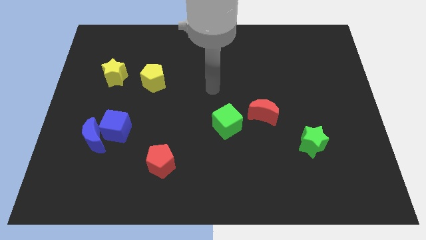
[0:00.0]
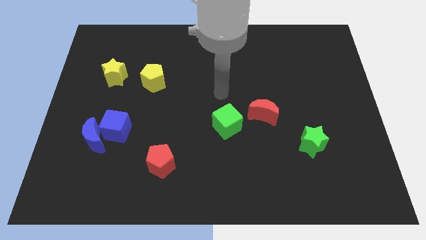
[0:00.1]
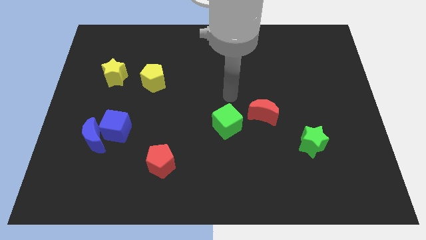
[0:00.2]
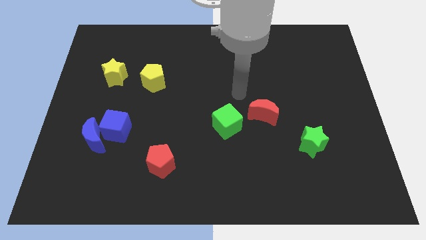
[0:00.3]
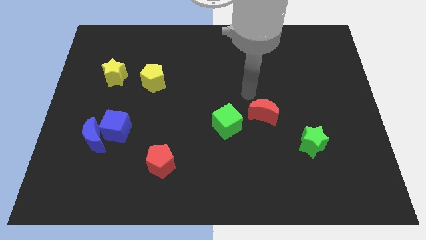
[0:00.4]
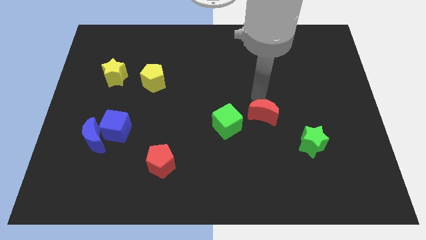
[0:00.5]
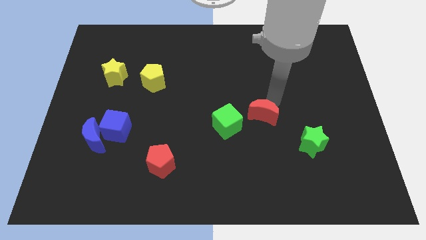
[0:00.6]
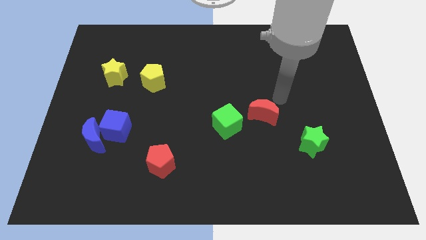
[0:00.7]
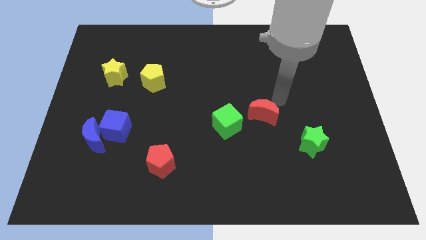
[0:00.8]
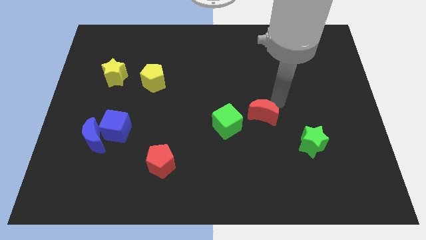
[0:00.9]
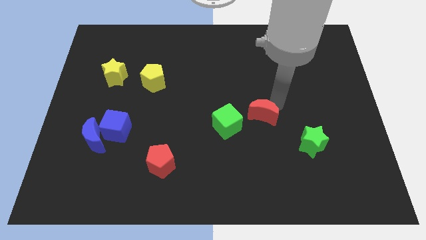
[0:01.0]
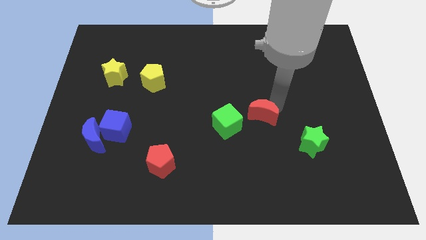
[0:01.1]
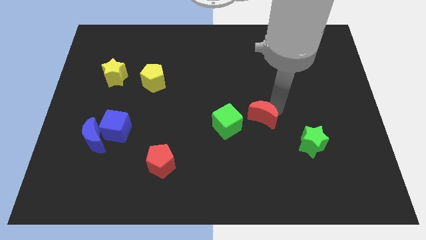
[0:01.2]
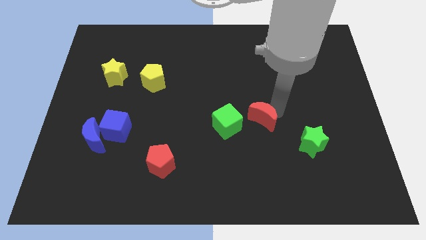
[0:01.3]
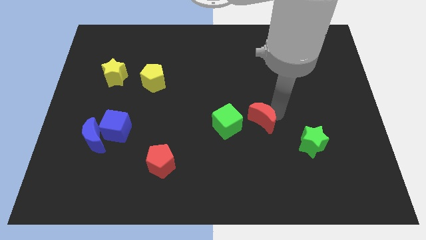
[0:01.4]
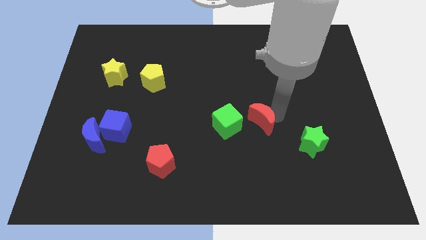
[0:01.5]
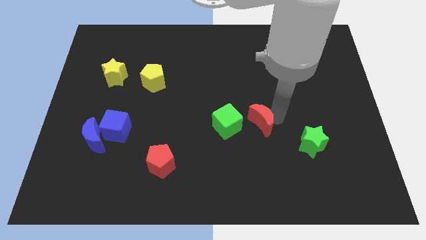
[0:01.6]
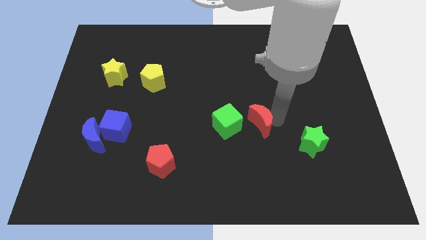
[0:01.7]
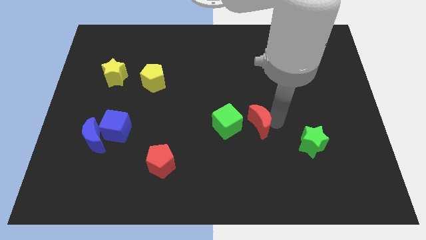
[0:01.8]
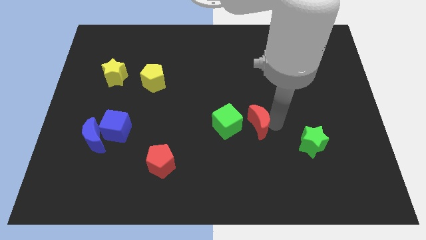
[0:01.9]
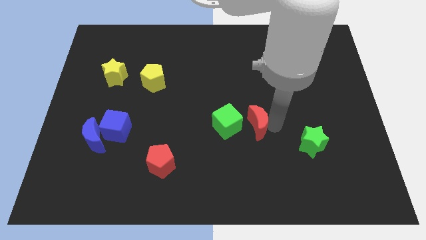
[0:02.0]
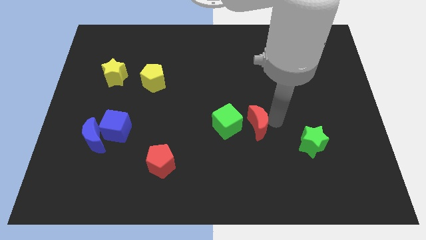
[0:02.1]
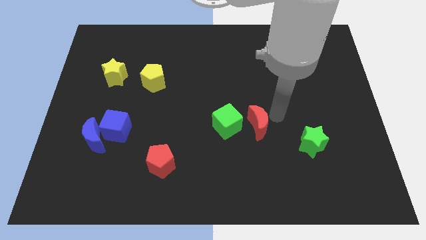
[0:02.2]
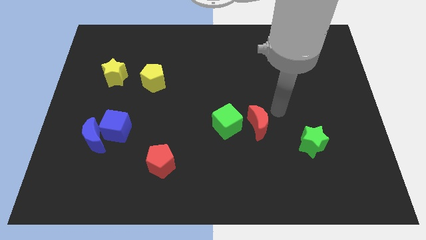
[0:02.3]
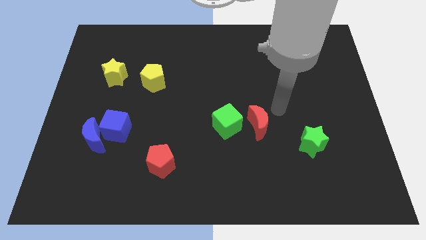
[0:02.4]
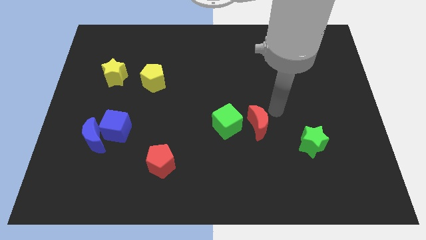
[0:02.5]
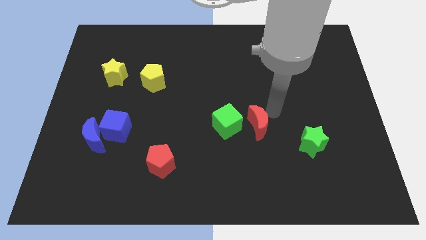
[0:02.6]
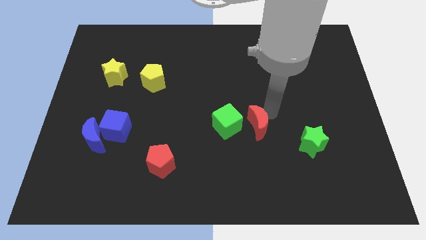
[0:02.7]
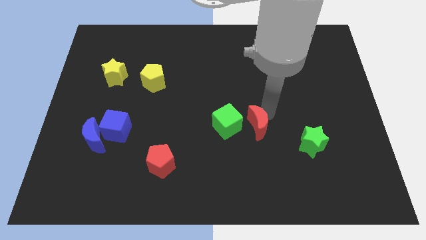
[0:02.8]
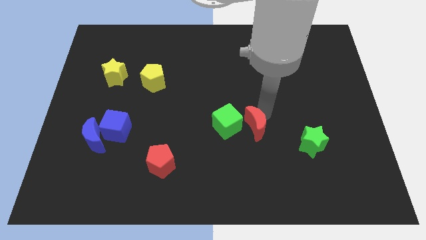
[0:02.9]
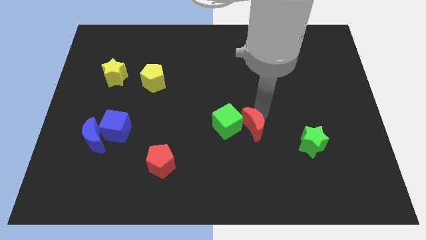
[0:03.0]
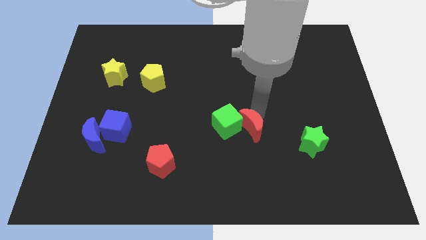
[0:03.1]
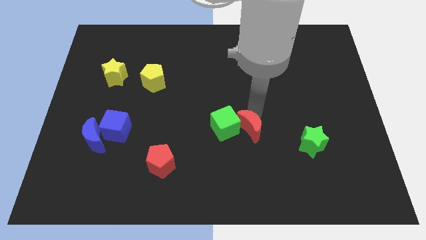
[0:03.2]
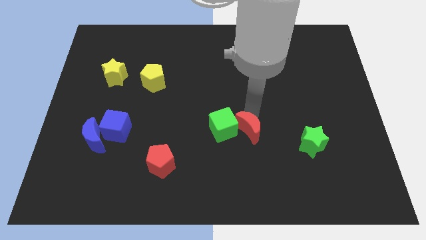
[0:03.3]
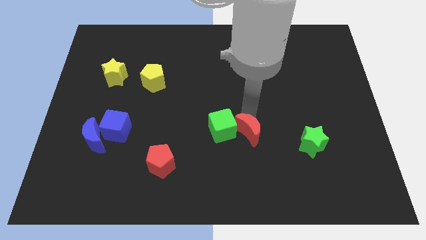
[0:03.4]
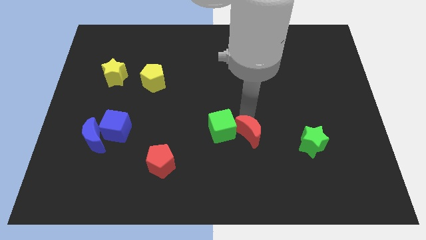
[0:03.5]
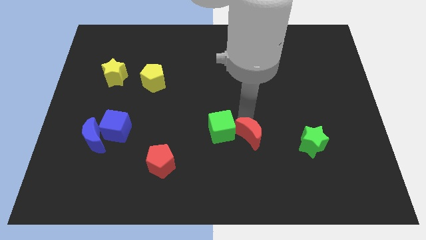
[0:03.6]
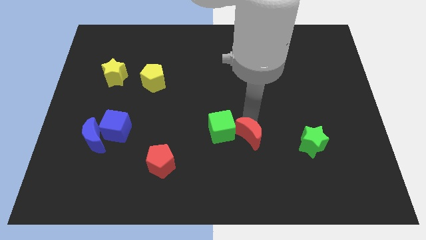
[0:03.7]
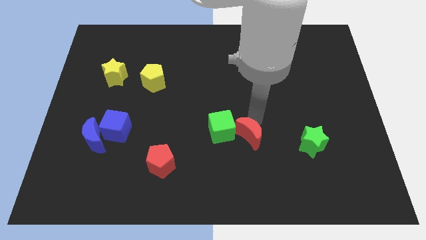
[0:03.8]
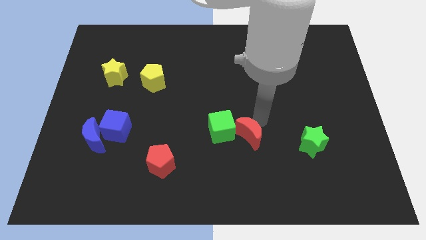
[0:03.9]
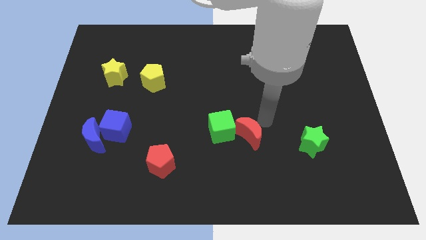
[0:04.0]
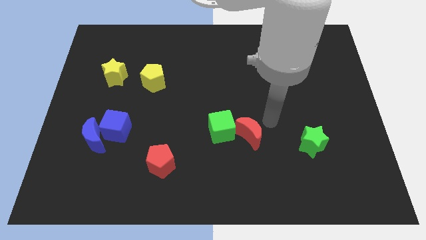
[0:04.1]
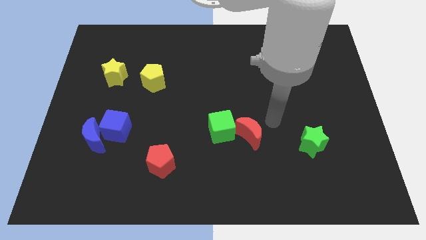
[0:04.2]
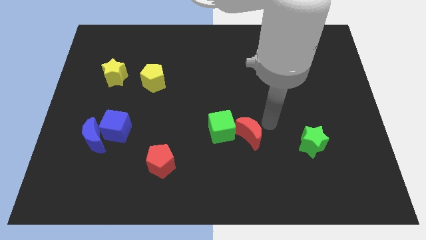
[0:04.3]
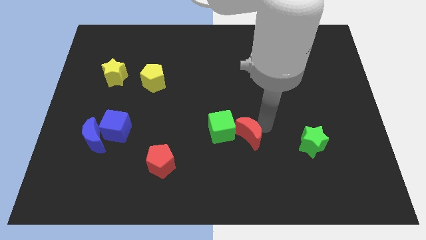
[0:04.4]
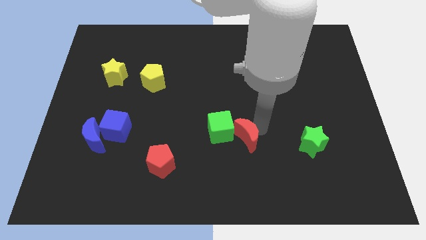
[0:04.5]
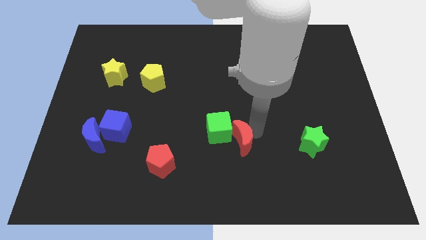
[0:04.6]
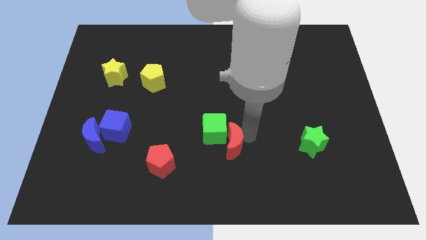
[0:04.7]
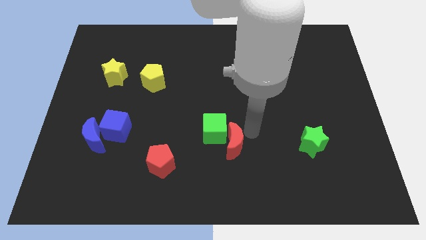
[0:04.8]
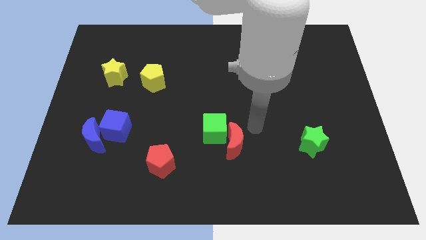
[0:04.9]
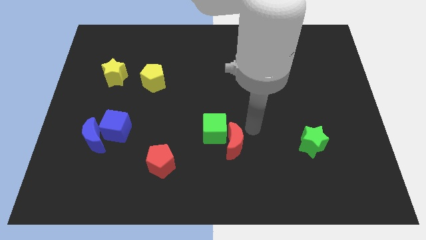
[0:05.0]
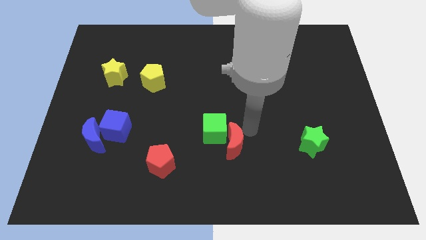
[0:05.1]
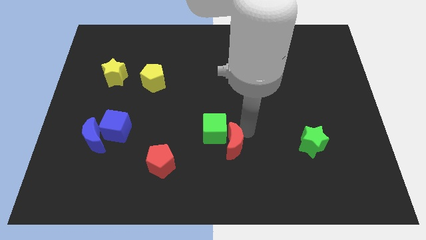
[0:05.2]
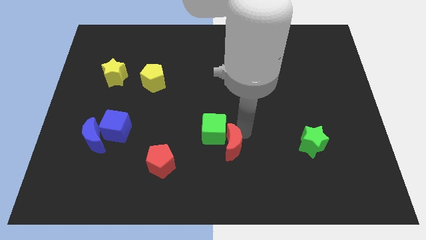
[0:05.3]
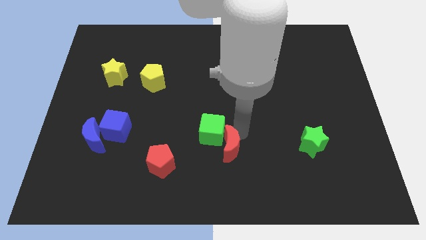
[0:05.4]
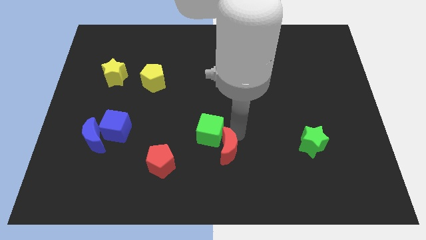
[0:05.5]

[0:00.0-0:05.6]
move the red moon to the right of the red pentagon

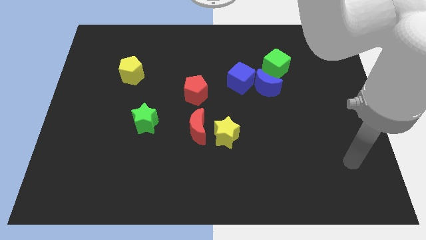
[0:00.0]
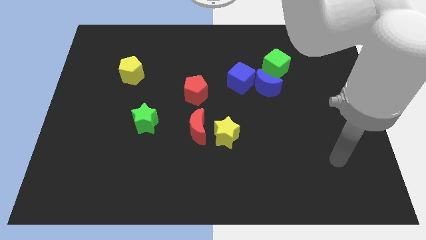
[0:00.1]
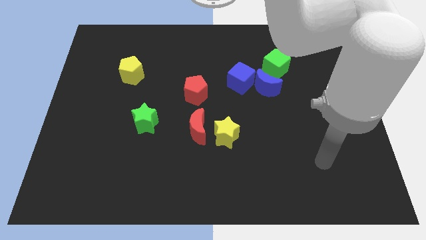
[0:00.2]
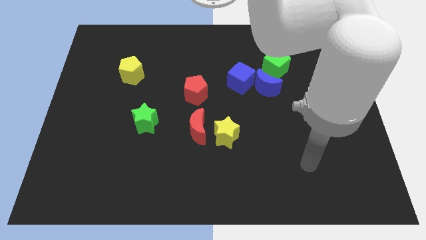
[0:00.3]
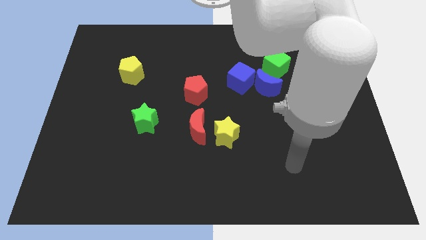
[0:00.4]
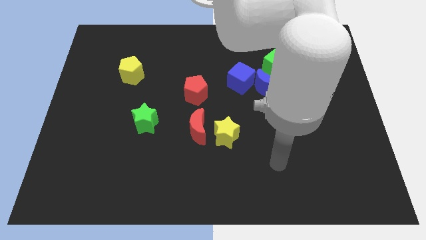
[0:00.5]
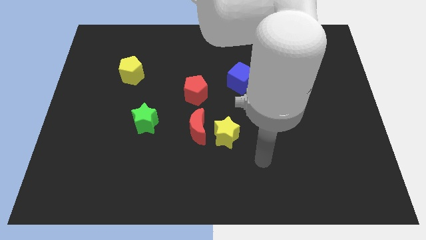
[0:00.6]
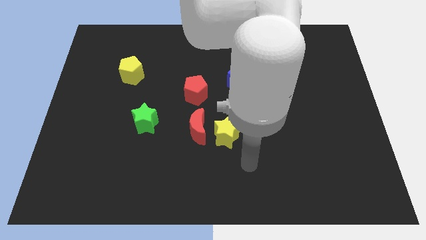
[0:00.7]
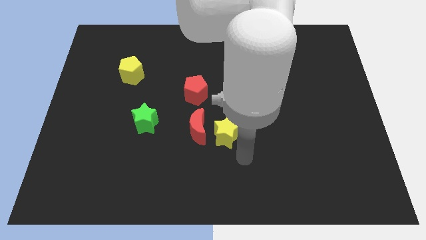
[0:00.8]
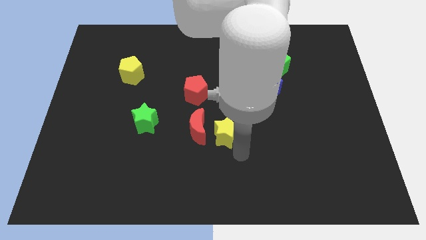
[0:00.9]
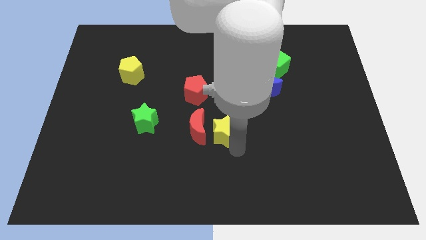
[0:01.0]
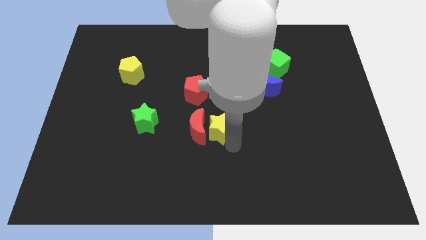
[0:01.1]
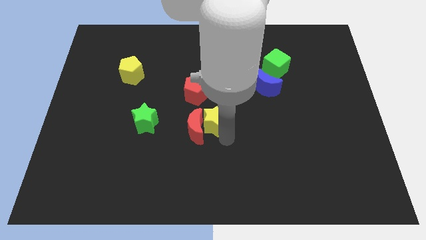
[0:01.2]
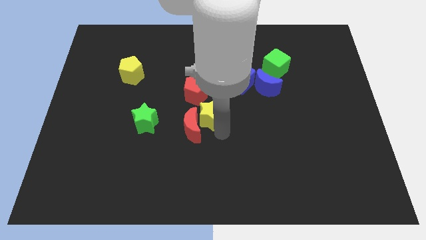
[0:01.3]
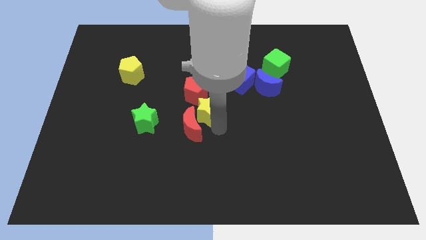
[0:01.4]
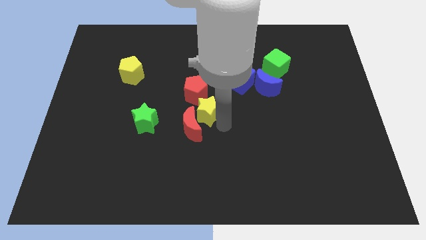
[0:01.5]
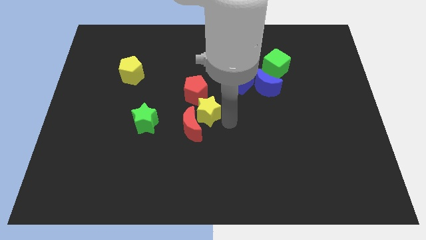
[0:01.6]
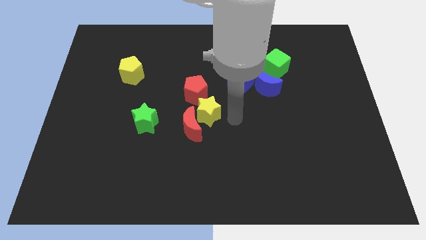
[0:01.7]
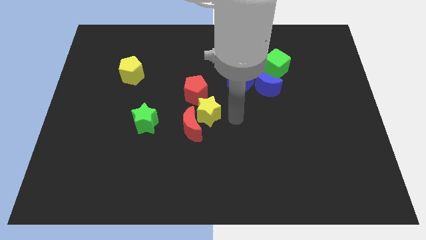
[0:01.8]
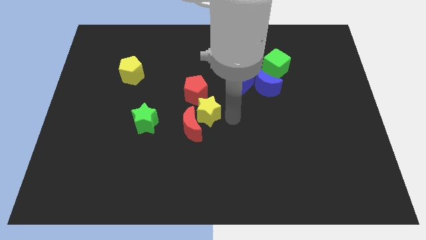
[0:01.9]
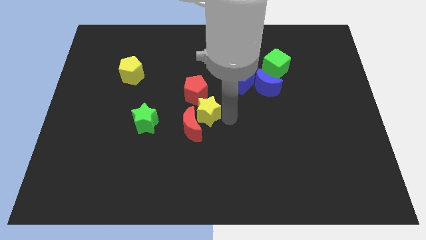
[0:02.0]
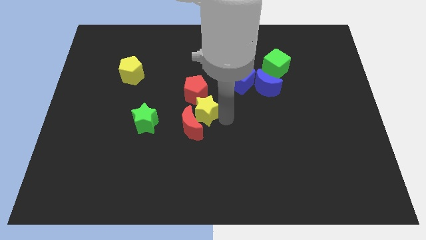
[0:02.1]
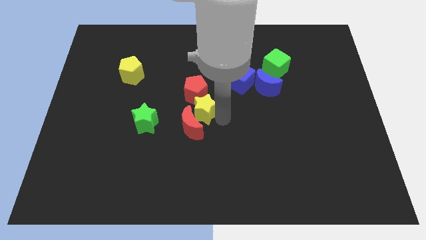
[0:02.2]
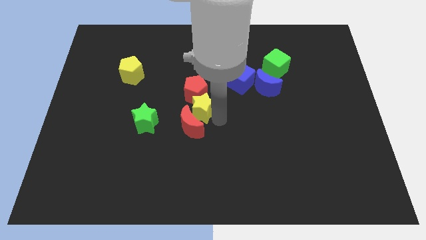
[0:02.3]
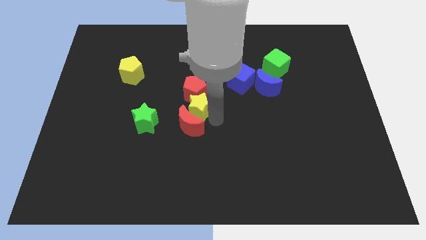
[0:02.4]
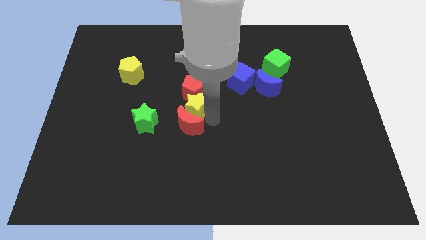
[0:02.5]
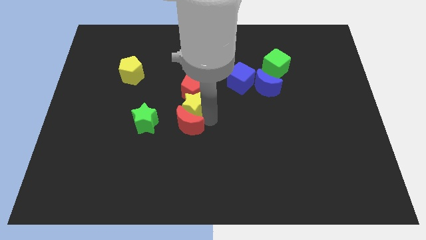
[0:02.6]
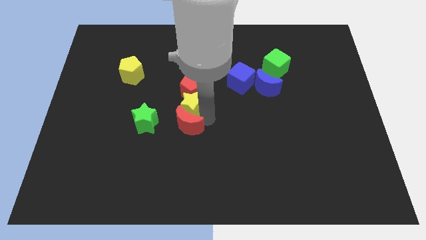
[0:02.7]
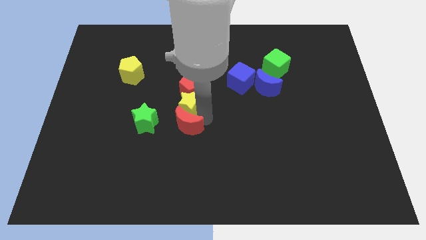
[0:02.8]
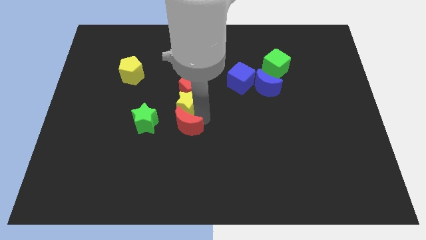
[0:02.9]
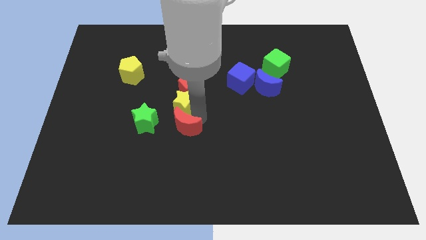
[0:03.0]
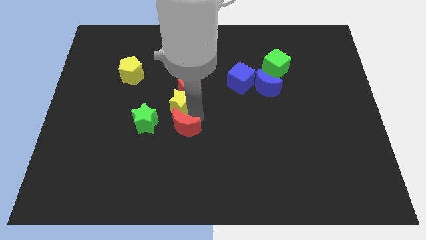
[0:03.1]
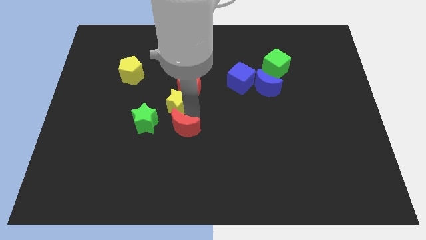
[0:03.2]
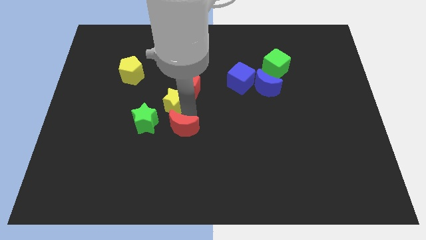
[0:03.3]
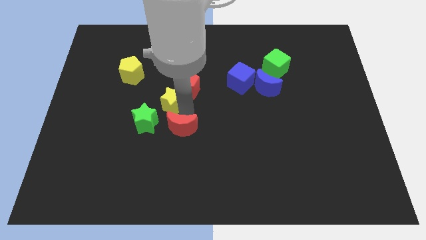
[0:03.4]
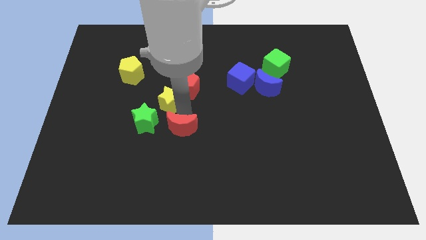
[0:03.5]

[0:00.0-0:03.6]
move the yellow star to the top of the green star
